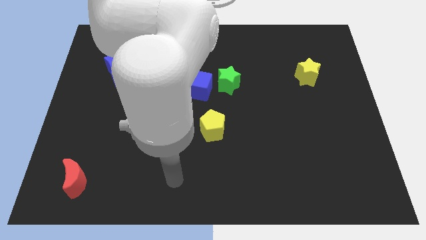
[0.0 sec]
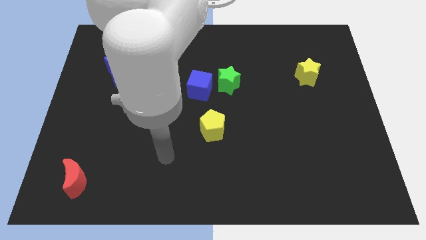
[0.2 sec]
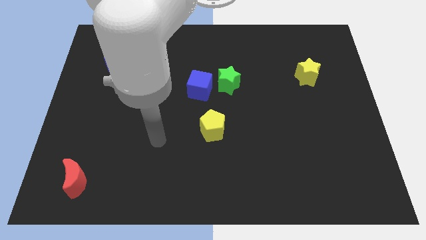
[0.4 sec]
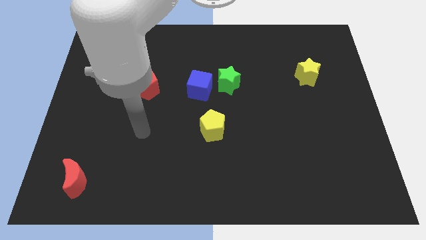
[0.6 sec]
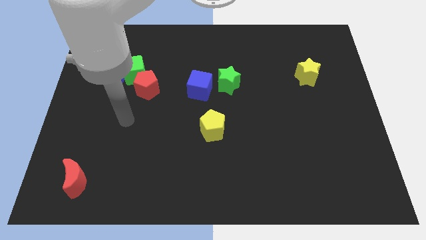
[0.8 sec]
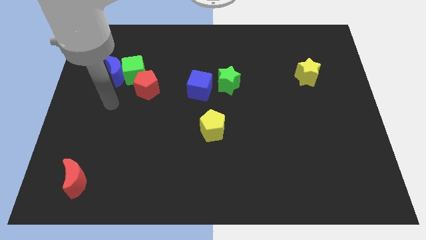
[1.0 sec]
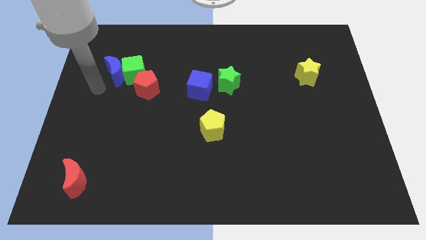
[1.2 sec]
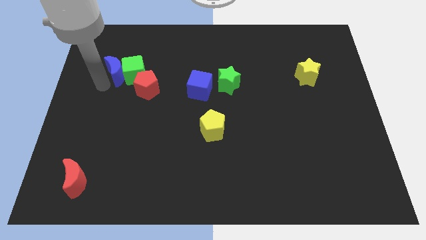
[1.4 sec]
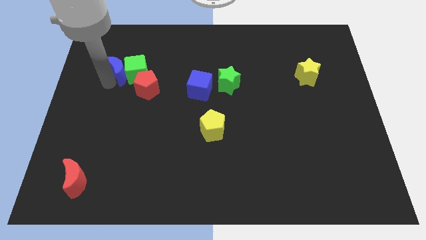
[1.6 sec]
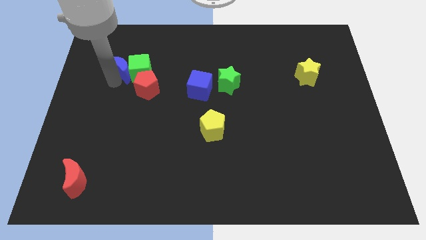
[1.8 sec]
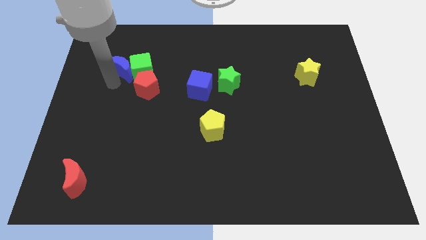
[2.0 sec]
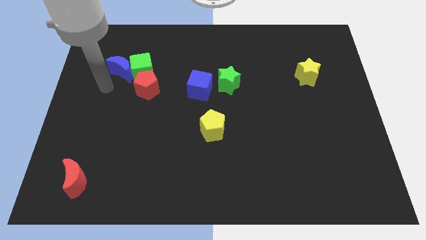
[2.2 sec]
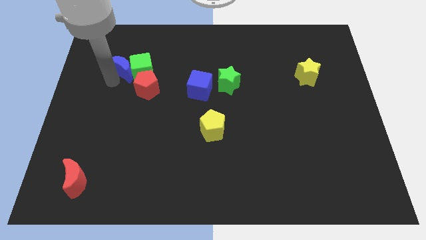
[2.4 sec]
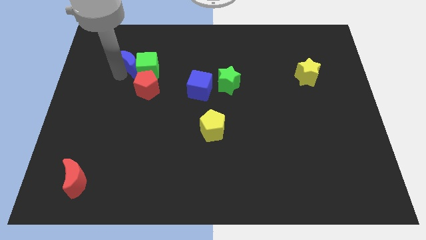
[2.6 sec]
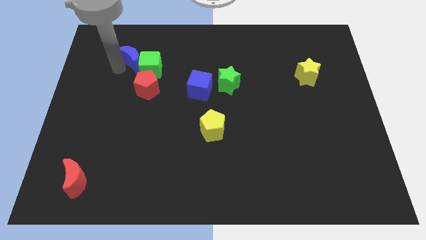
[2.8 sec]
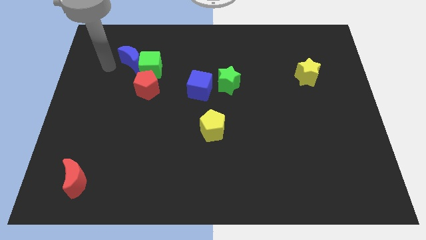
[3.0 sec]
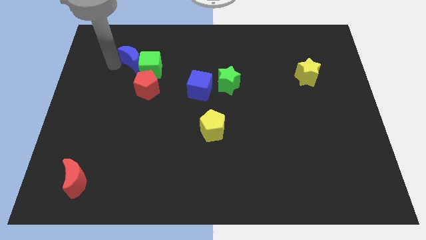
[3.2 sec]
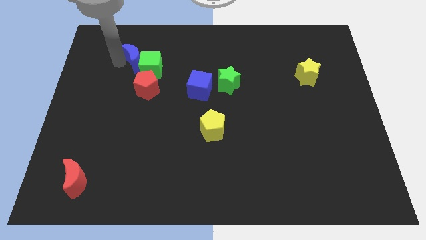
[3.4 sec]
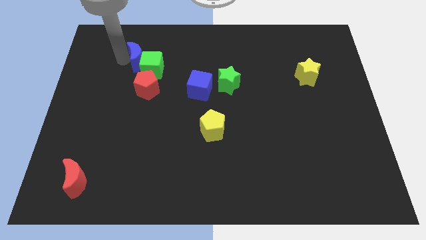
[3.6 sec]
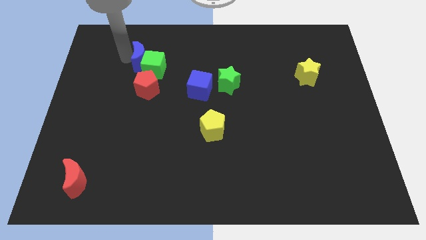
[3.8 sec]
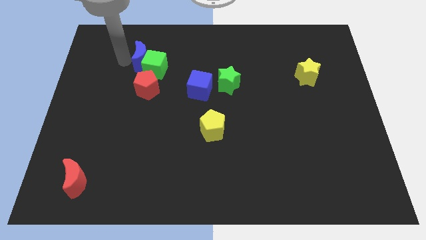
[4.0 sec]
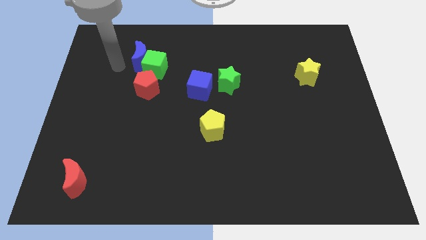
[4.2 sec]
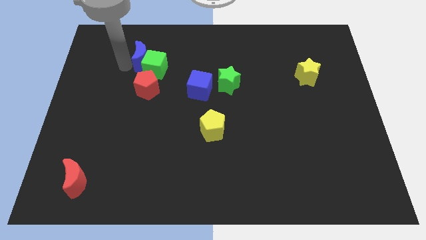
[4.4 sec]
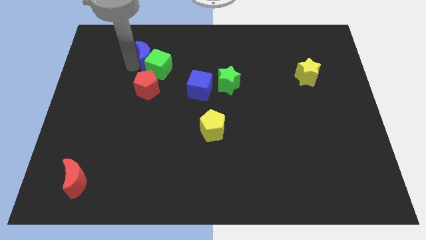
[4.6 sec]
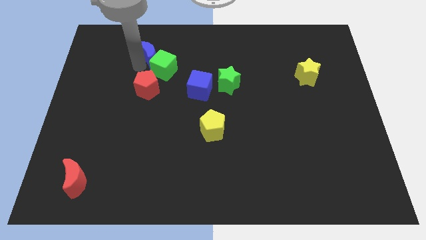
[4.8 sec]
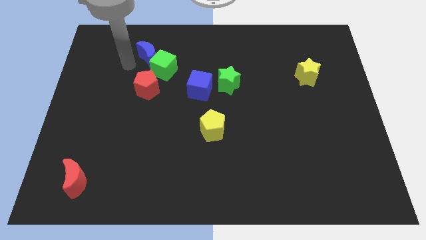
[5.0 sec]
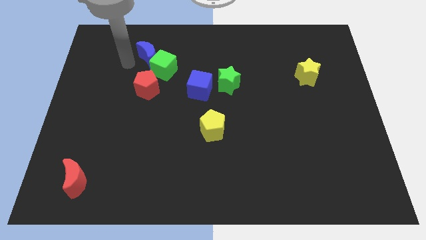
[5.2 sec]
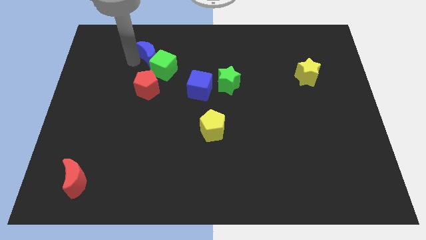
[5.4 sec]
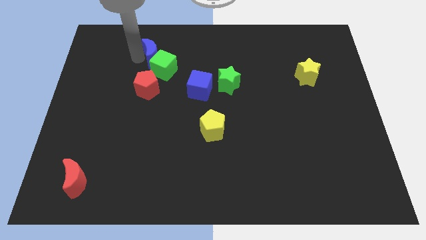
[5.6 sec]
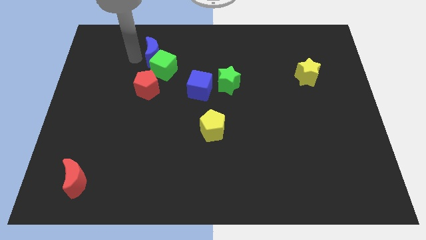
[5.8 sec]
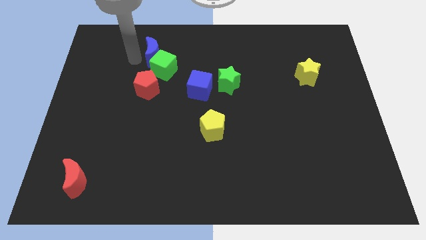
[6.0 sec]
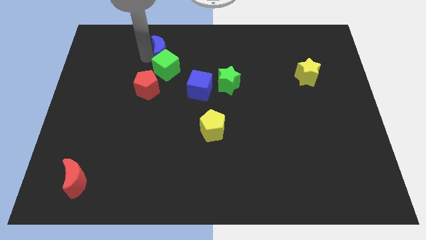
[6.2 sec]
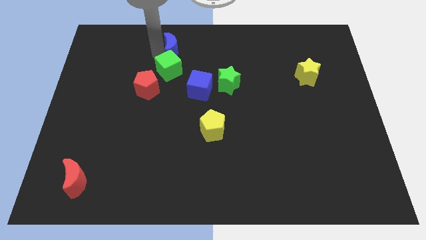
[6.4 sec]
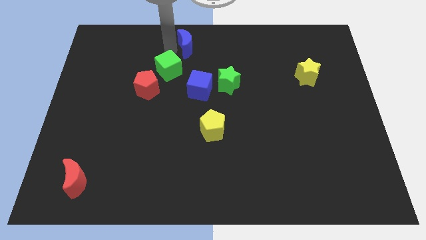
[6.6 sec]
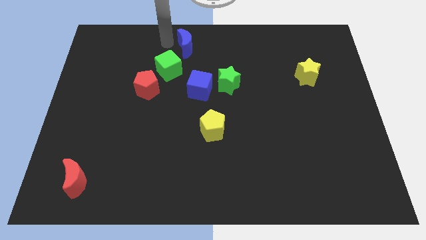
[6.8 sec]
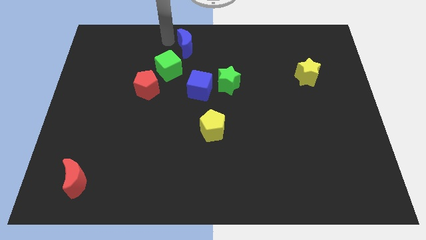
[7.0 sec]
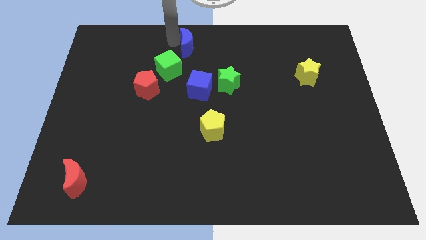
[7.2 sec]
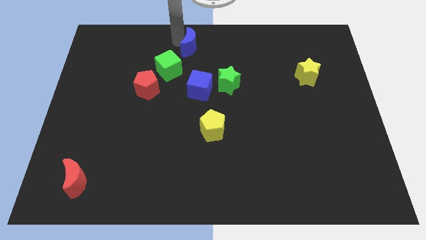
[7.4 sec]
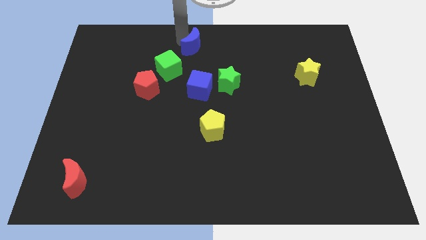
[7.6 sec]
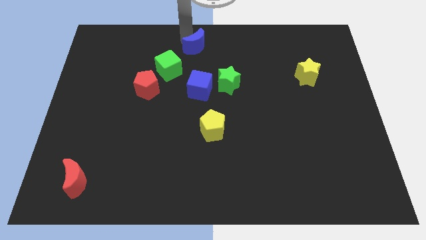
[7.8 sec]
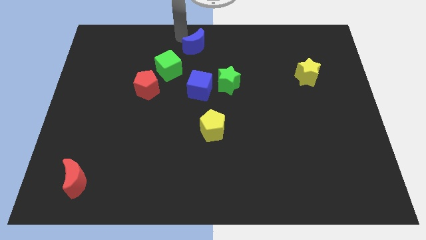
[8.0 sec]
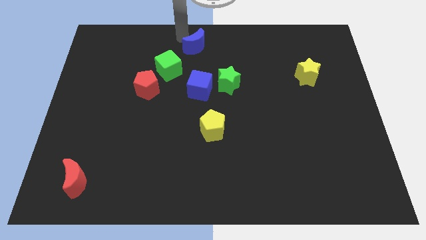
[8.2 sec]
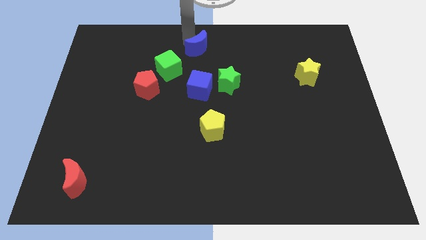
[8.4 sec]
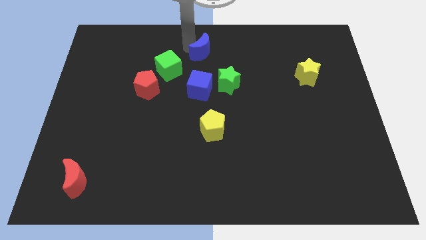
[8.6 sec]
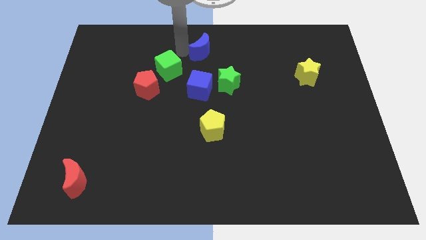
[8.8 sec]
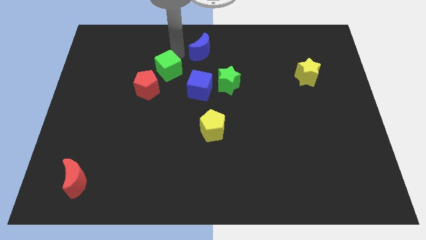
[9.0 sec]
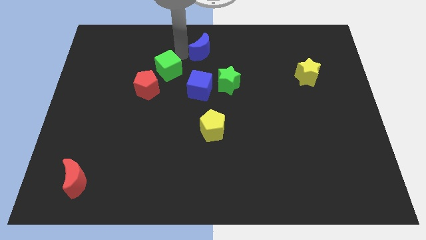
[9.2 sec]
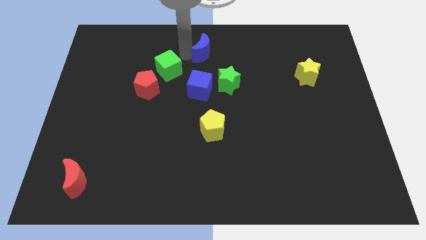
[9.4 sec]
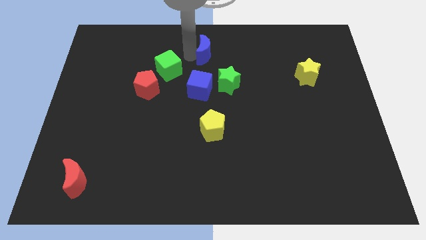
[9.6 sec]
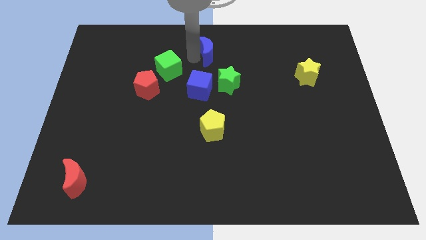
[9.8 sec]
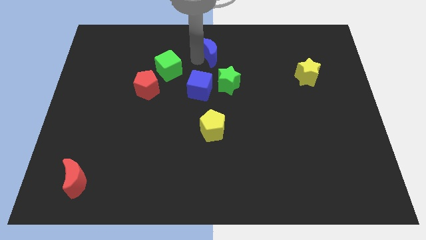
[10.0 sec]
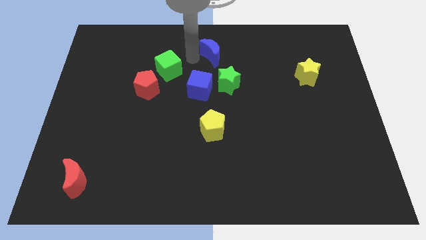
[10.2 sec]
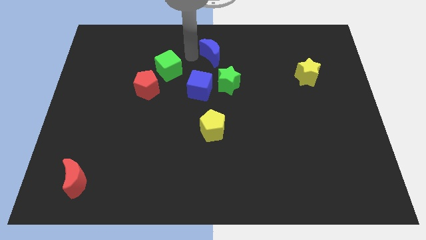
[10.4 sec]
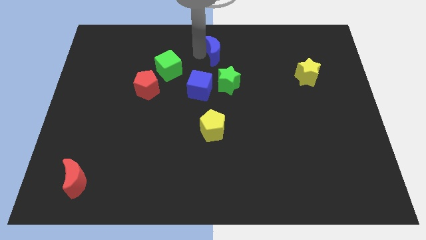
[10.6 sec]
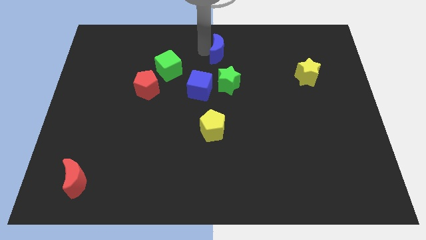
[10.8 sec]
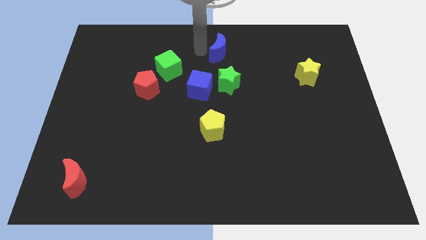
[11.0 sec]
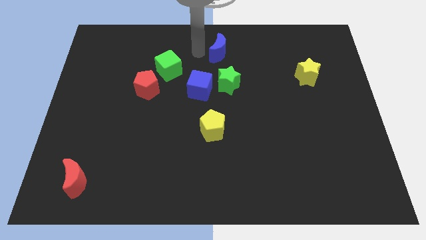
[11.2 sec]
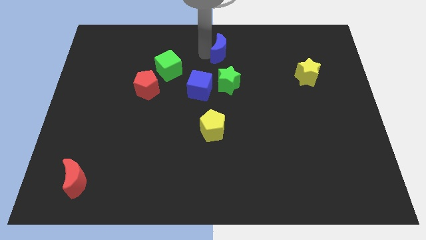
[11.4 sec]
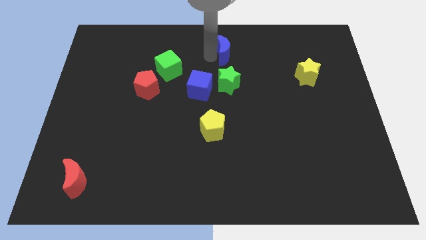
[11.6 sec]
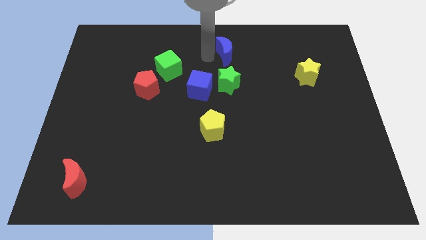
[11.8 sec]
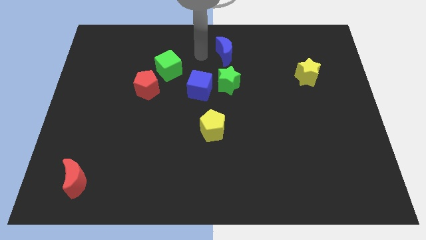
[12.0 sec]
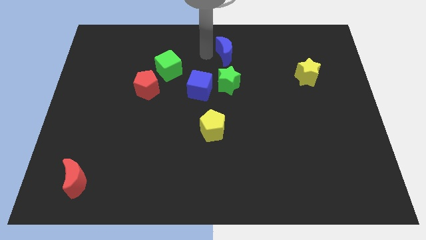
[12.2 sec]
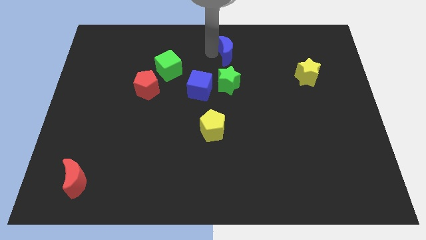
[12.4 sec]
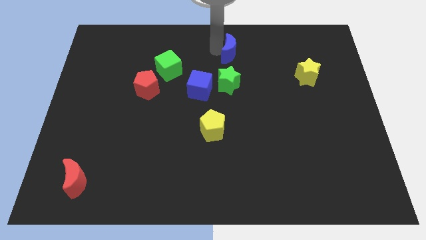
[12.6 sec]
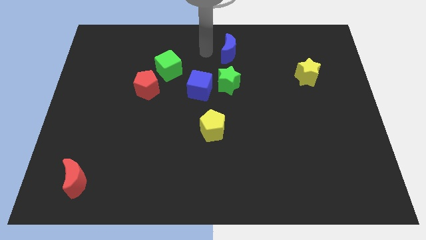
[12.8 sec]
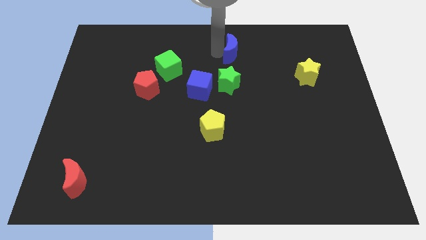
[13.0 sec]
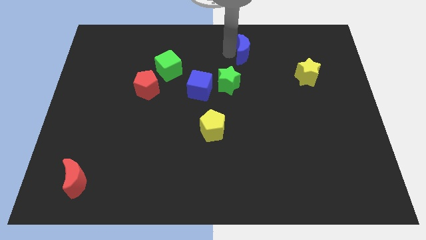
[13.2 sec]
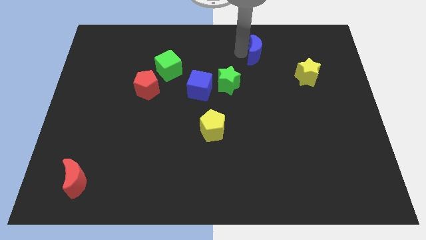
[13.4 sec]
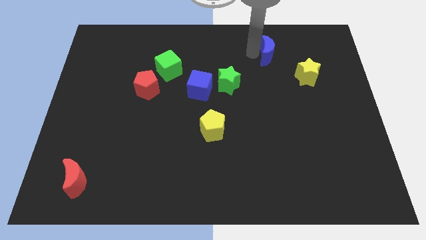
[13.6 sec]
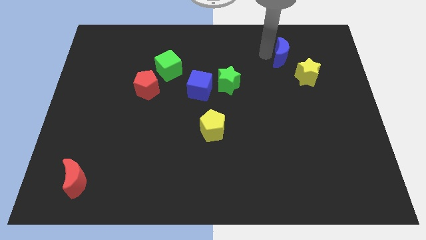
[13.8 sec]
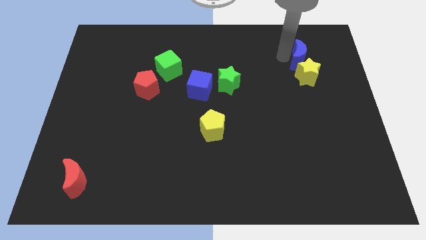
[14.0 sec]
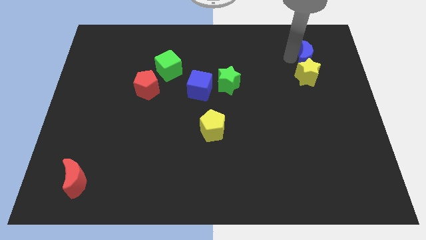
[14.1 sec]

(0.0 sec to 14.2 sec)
slide the blue moon to the top right of the yellow star
